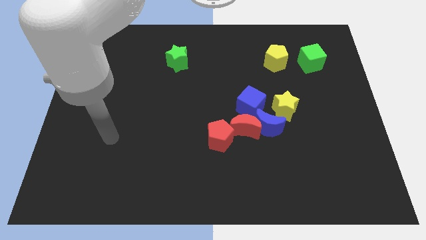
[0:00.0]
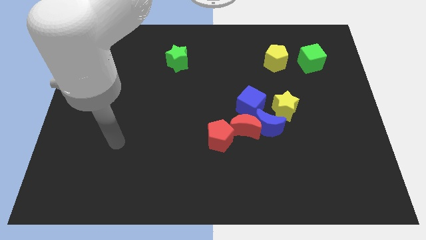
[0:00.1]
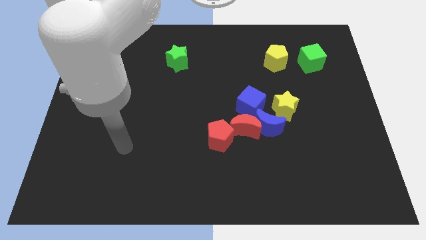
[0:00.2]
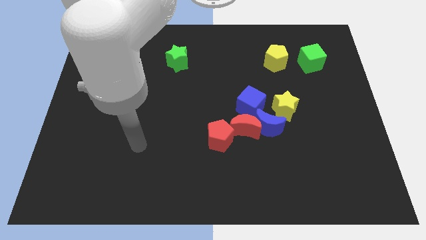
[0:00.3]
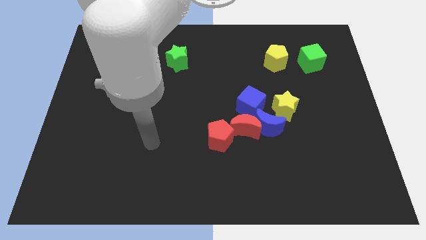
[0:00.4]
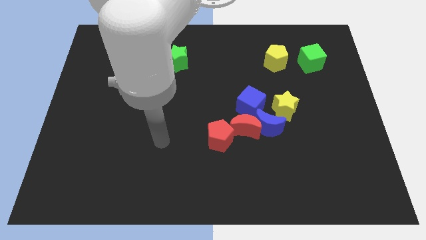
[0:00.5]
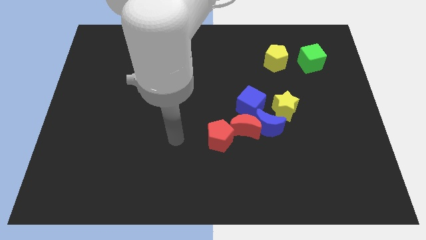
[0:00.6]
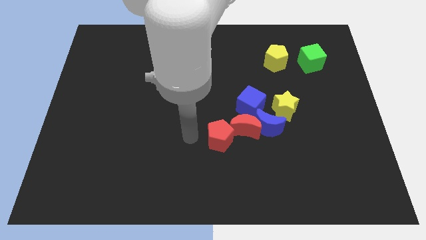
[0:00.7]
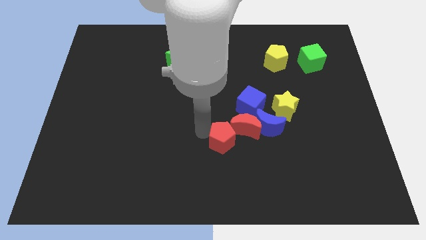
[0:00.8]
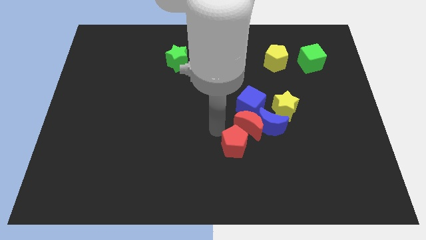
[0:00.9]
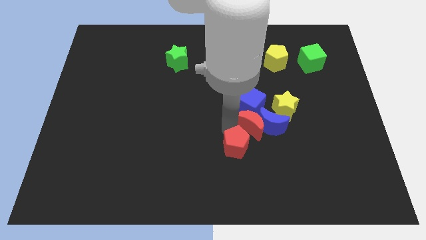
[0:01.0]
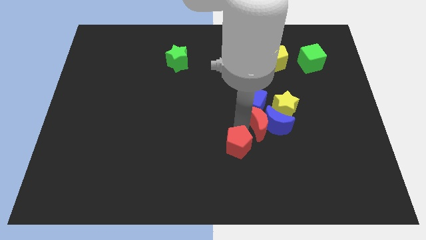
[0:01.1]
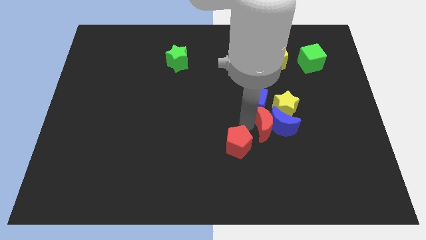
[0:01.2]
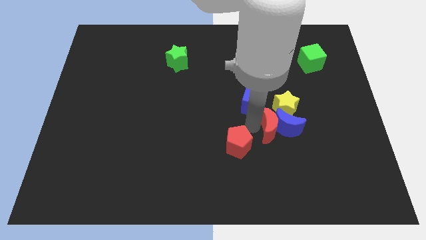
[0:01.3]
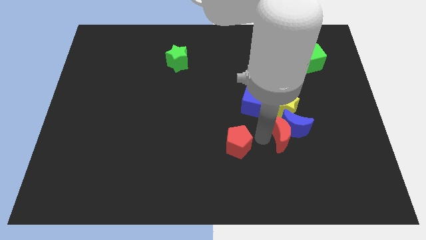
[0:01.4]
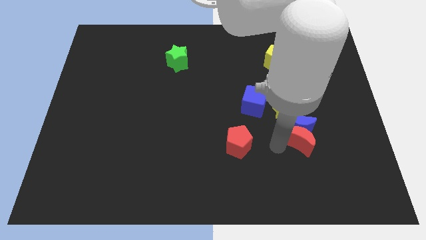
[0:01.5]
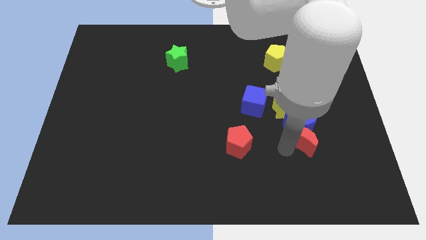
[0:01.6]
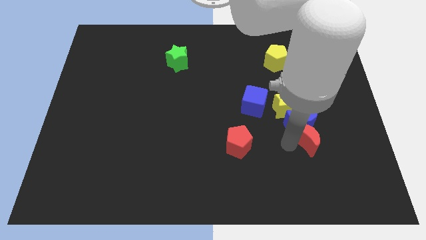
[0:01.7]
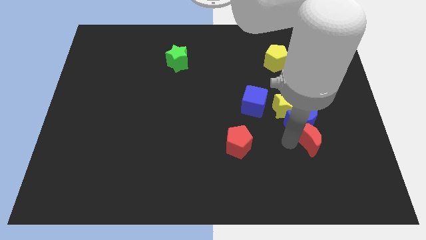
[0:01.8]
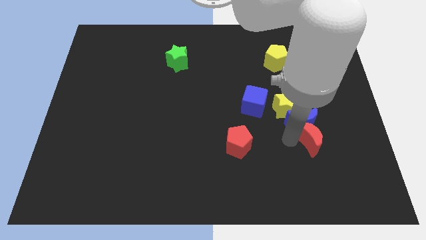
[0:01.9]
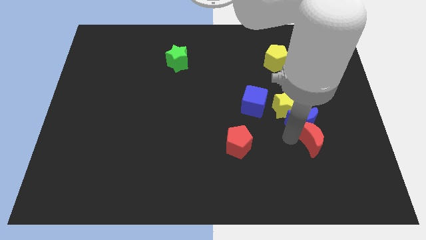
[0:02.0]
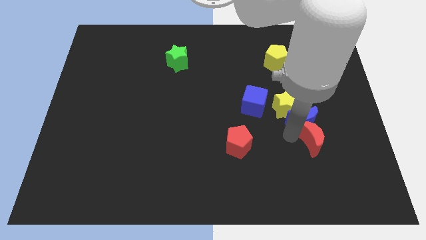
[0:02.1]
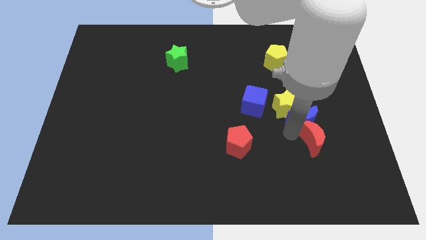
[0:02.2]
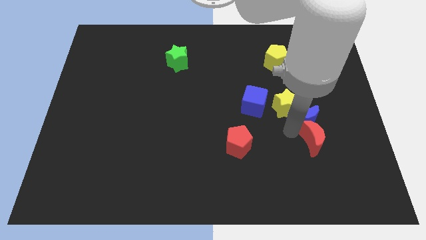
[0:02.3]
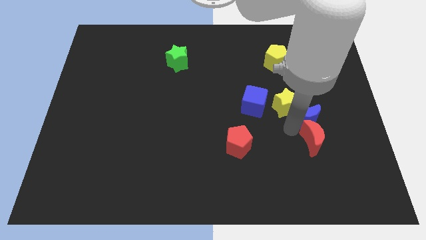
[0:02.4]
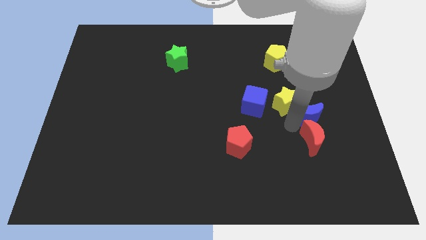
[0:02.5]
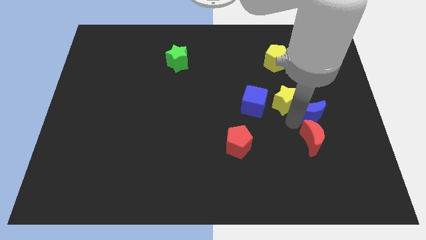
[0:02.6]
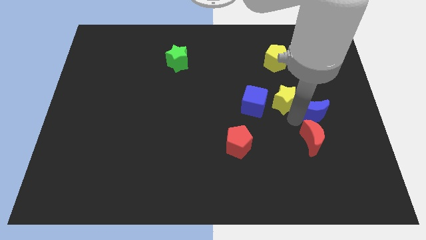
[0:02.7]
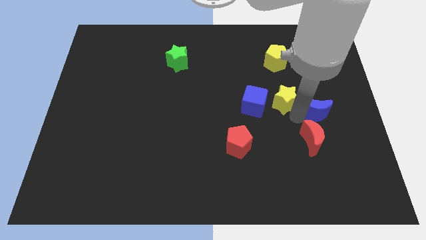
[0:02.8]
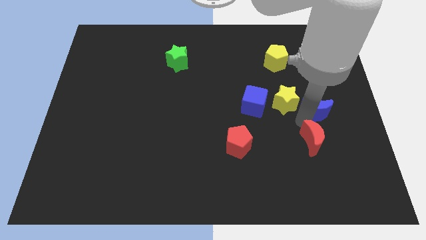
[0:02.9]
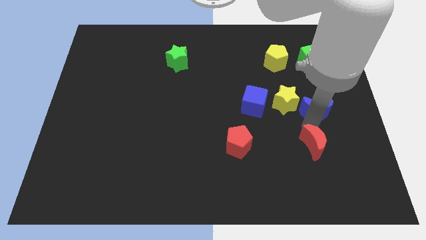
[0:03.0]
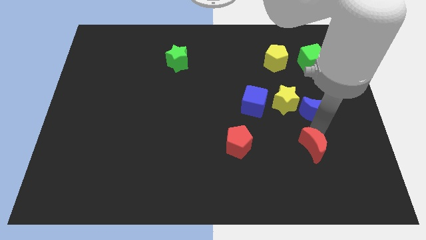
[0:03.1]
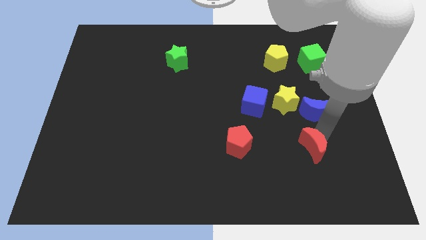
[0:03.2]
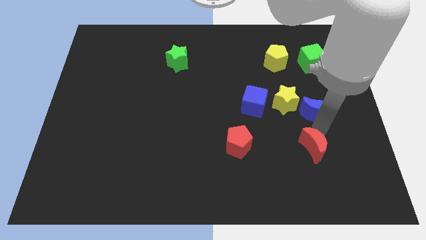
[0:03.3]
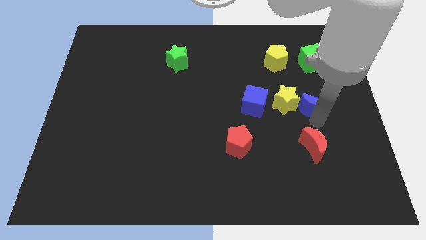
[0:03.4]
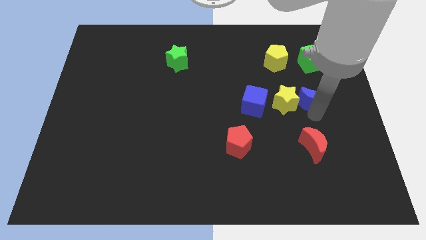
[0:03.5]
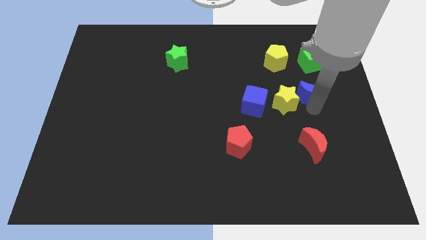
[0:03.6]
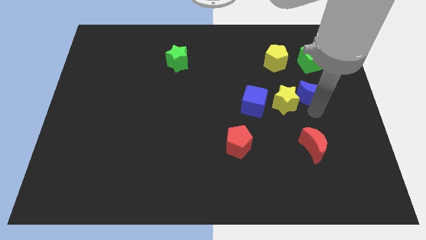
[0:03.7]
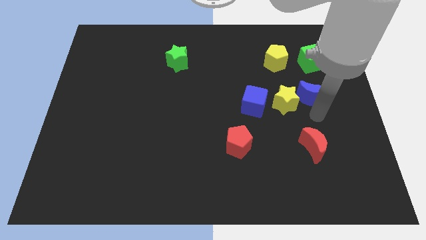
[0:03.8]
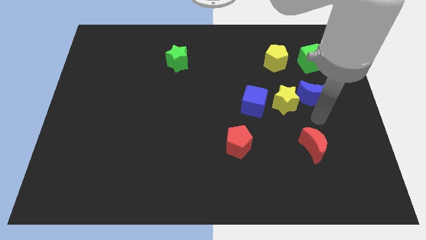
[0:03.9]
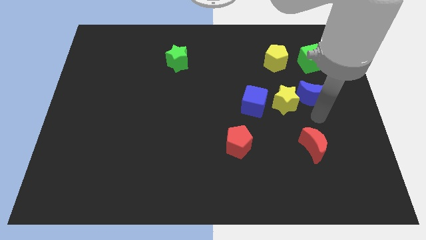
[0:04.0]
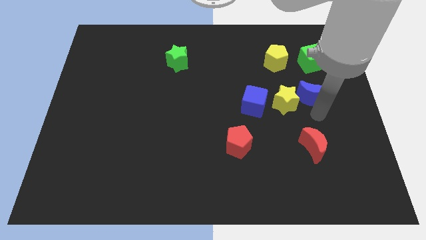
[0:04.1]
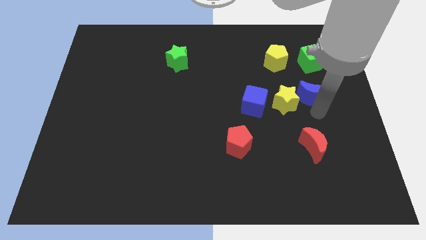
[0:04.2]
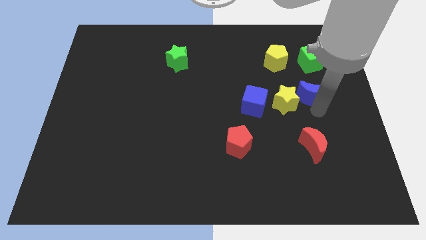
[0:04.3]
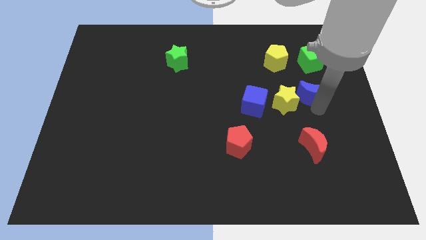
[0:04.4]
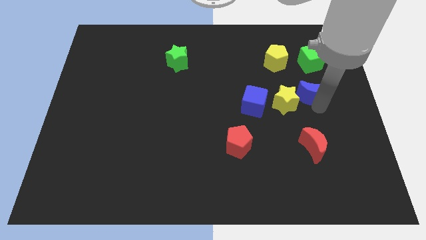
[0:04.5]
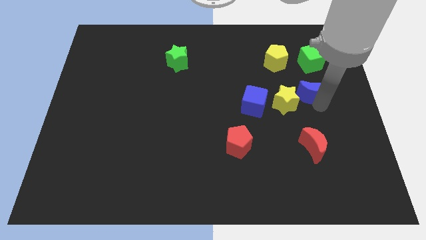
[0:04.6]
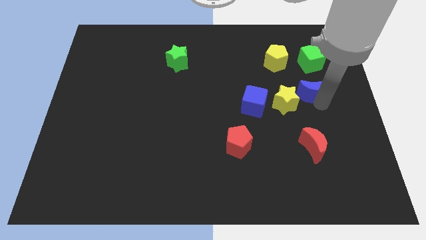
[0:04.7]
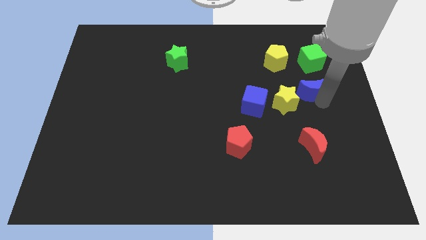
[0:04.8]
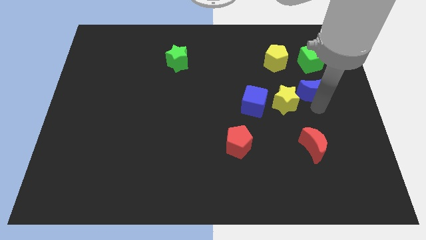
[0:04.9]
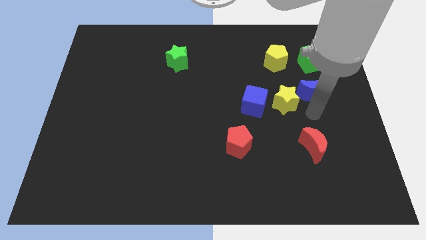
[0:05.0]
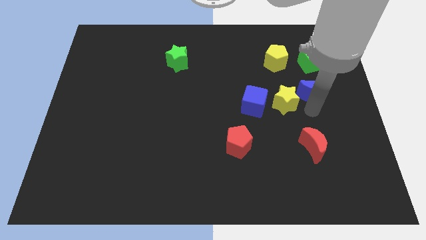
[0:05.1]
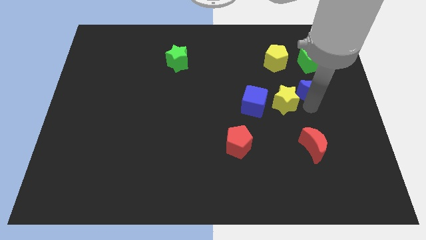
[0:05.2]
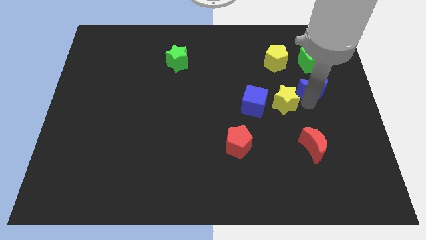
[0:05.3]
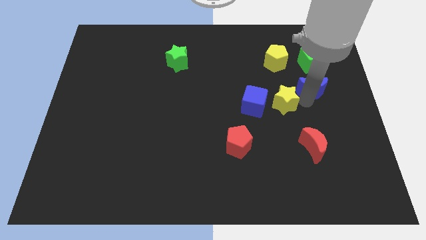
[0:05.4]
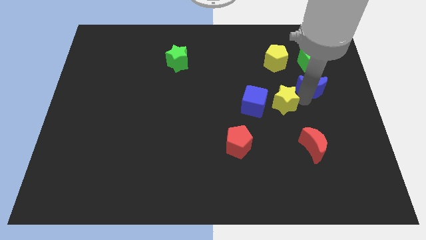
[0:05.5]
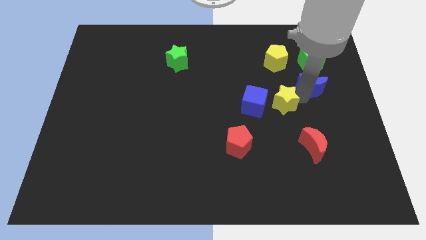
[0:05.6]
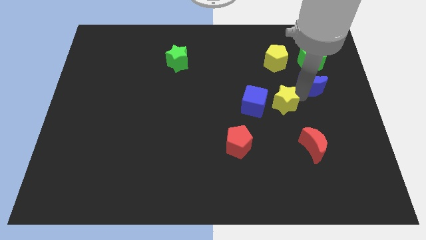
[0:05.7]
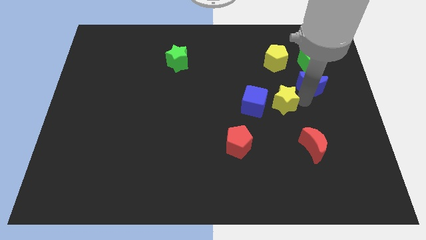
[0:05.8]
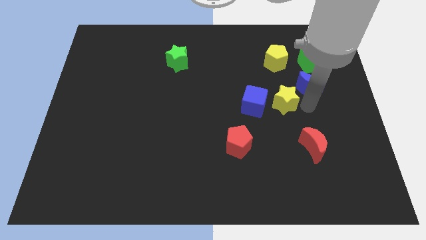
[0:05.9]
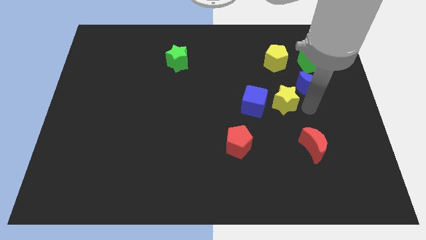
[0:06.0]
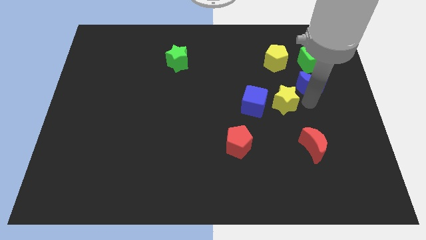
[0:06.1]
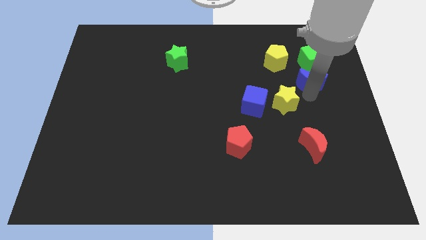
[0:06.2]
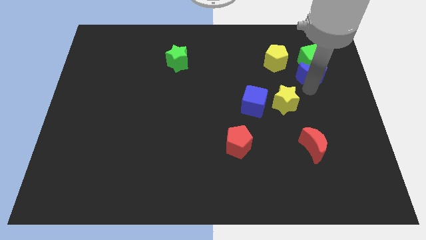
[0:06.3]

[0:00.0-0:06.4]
slide the blue moon next to the green cube
